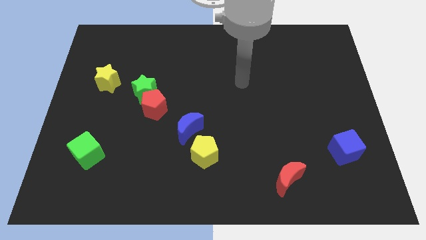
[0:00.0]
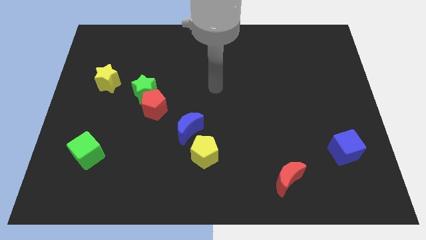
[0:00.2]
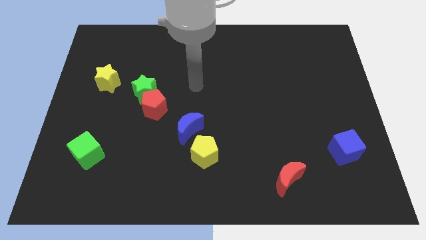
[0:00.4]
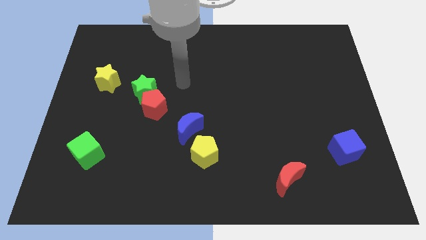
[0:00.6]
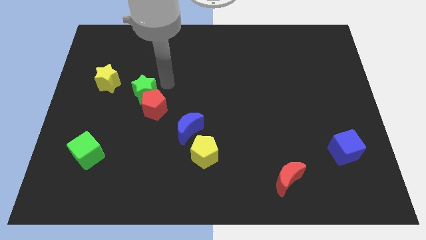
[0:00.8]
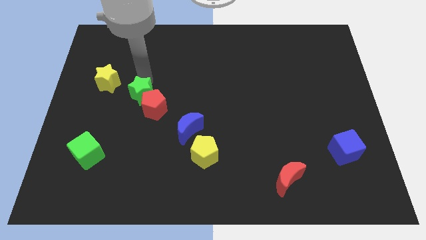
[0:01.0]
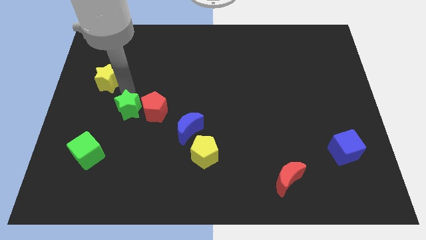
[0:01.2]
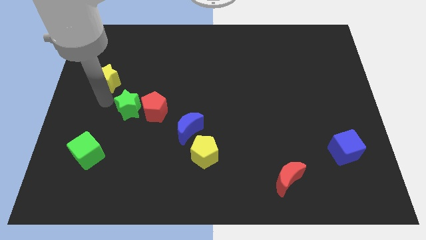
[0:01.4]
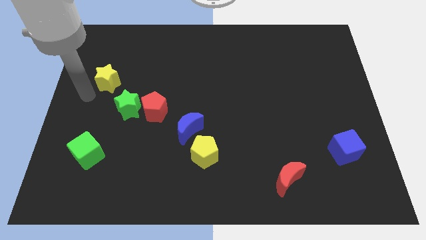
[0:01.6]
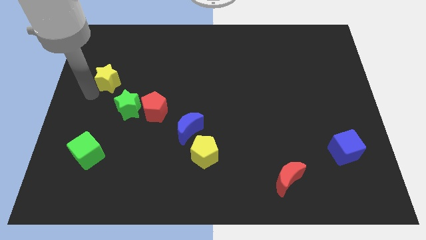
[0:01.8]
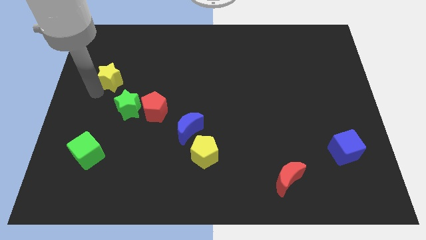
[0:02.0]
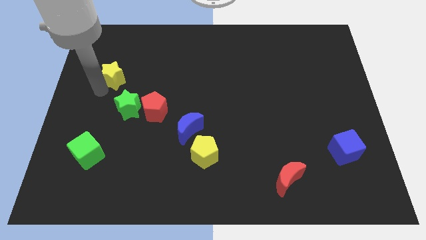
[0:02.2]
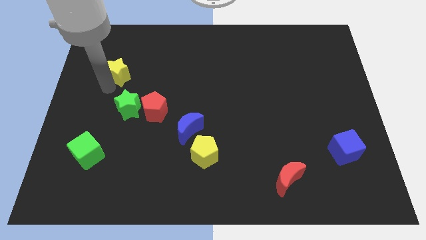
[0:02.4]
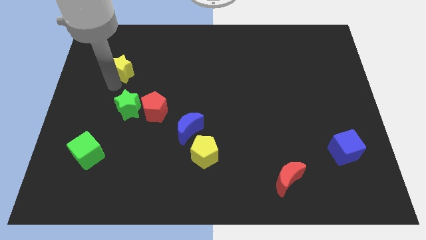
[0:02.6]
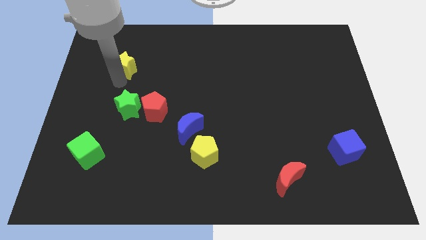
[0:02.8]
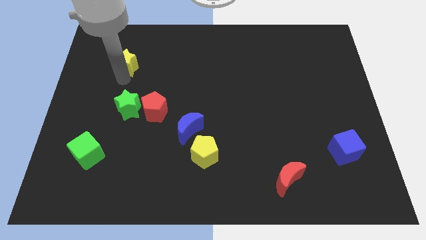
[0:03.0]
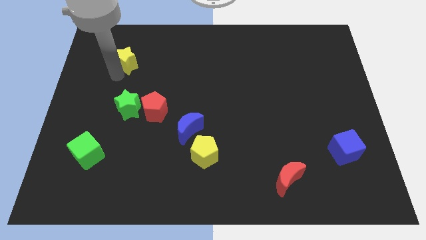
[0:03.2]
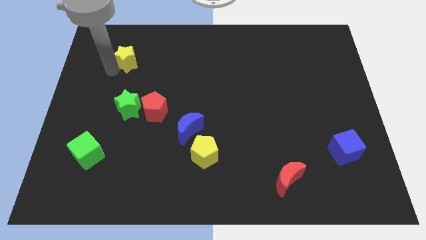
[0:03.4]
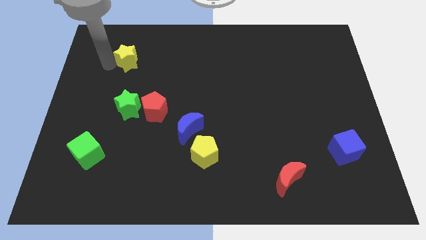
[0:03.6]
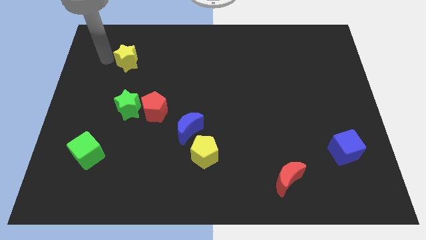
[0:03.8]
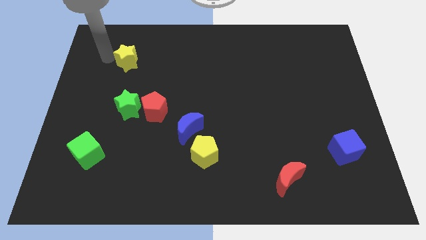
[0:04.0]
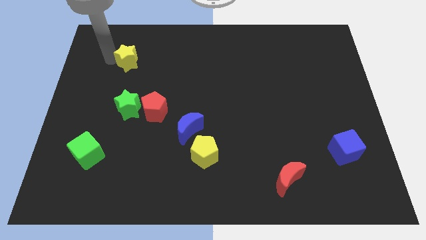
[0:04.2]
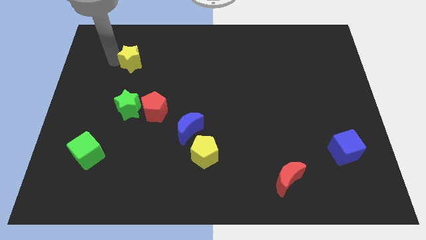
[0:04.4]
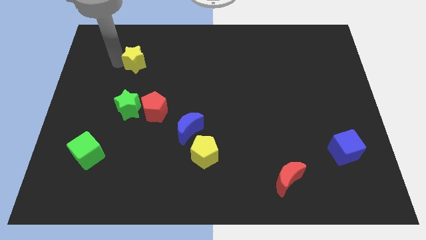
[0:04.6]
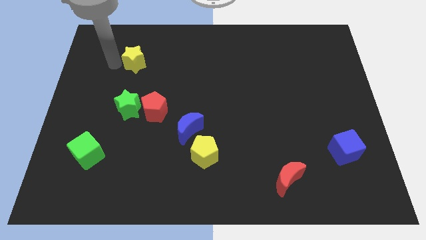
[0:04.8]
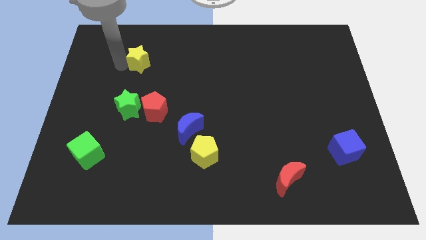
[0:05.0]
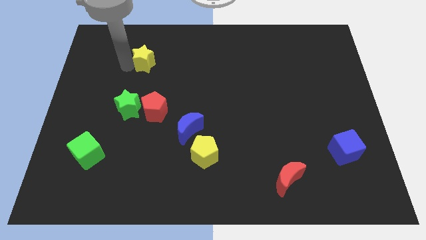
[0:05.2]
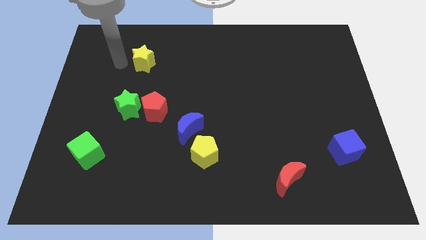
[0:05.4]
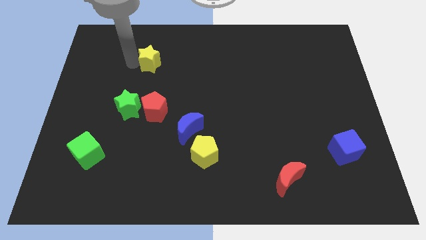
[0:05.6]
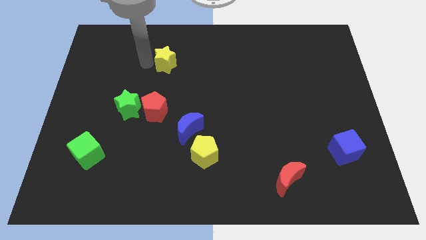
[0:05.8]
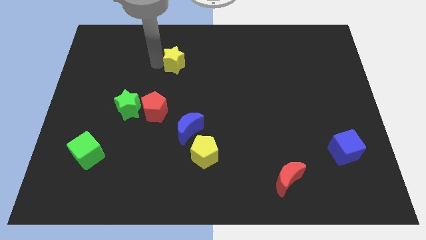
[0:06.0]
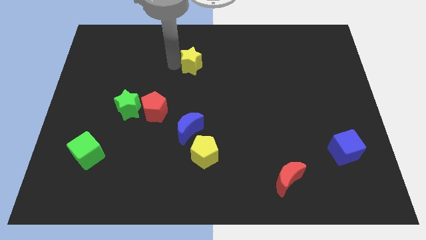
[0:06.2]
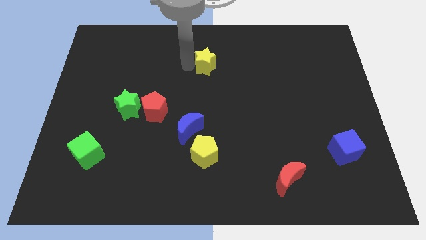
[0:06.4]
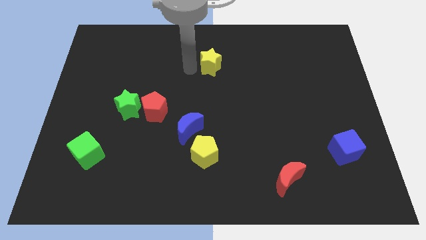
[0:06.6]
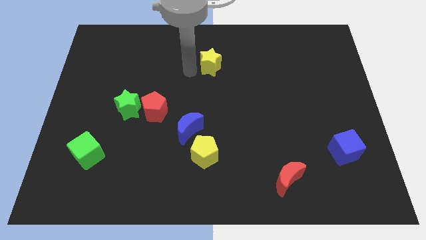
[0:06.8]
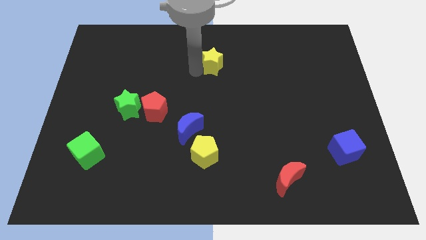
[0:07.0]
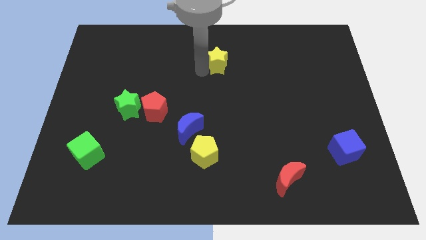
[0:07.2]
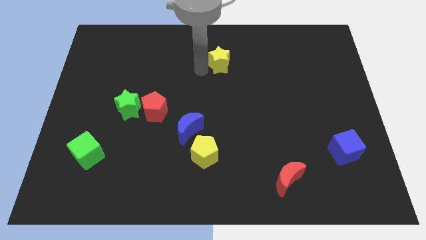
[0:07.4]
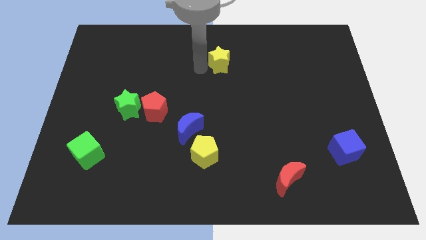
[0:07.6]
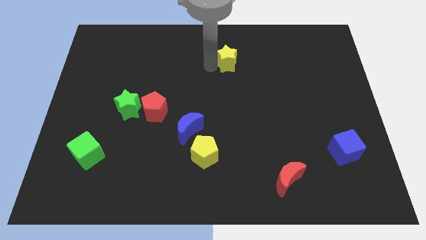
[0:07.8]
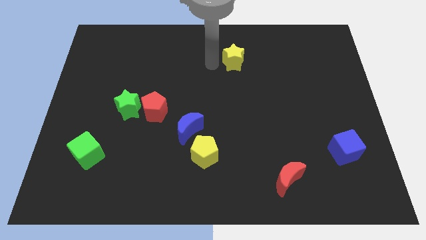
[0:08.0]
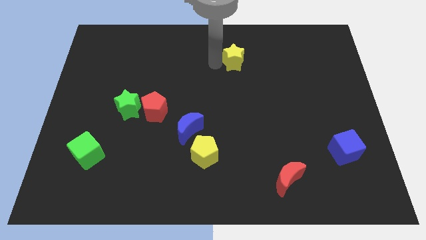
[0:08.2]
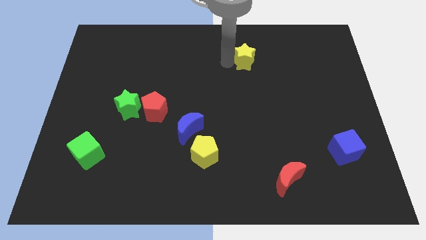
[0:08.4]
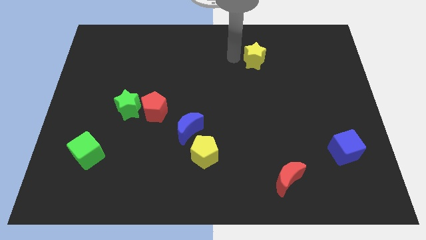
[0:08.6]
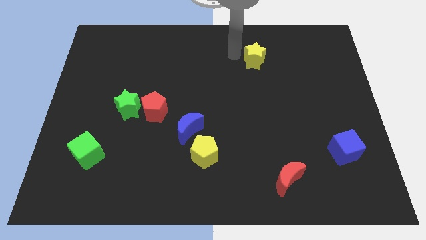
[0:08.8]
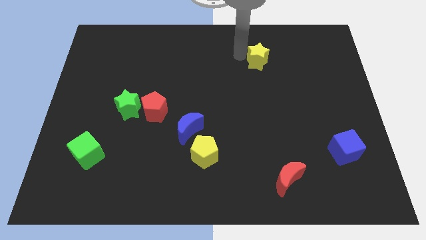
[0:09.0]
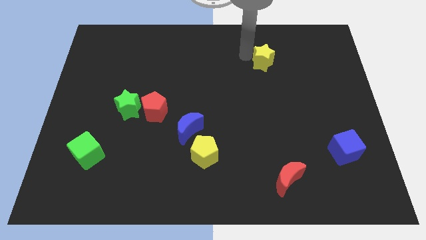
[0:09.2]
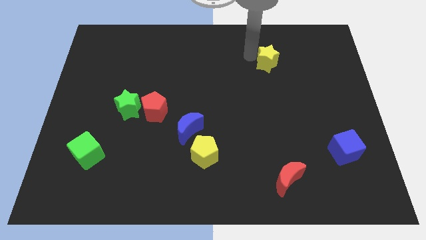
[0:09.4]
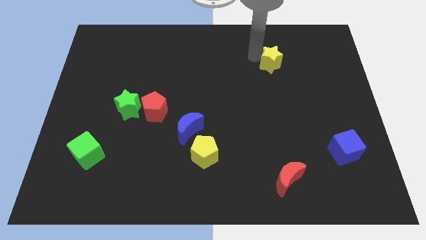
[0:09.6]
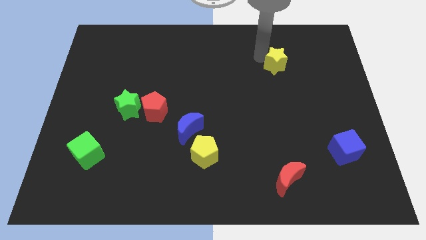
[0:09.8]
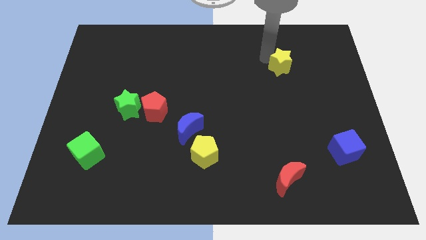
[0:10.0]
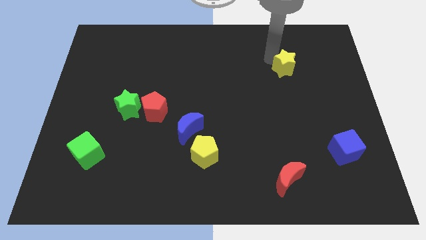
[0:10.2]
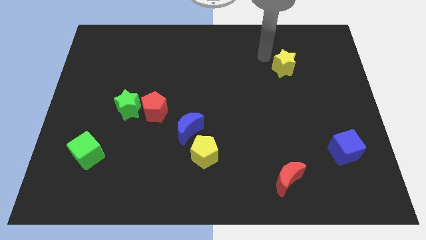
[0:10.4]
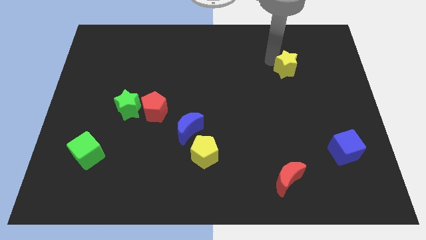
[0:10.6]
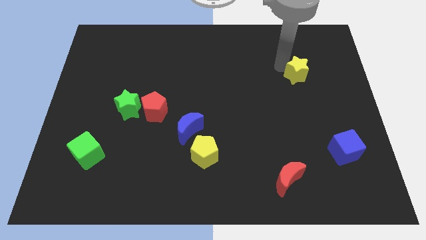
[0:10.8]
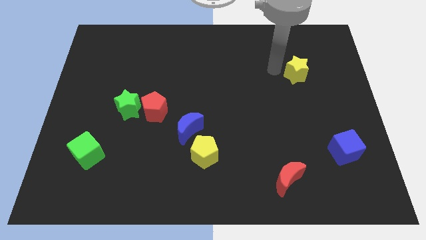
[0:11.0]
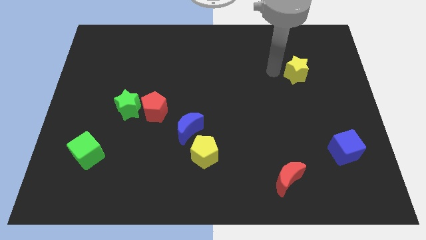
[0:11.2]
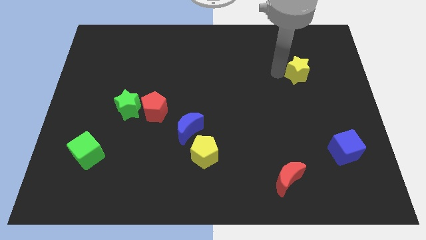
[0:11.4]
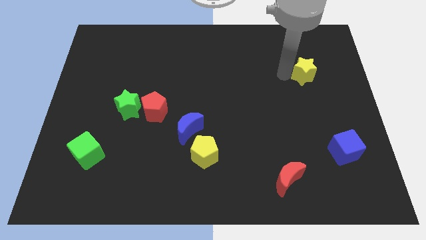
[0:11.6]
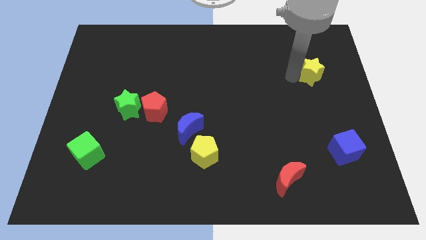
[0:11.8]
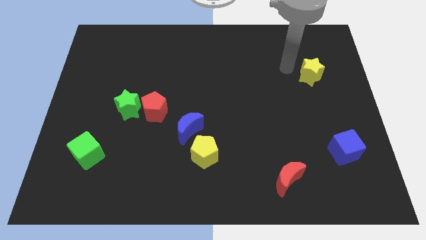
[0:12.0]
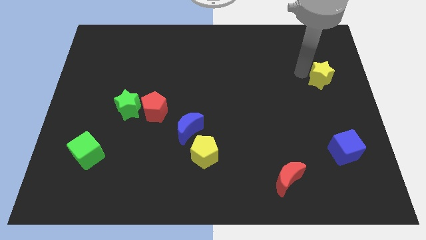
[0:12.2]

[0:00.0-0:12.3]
put the yellow star to the right side of the board

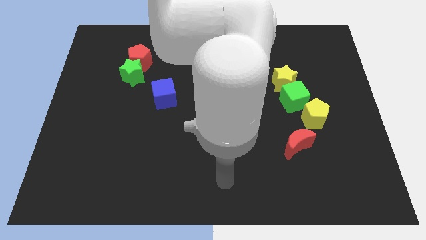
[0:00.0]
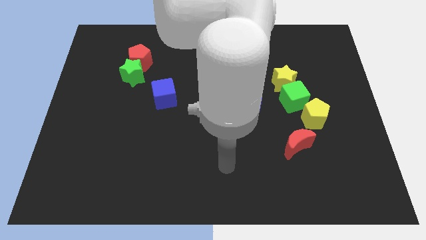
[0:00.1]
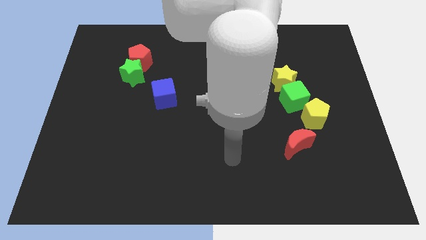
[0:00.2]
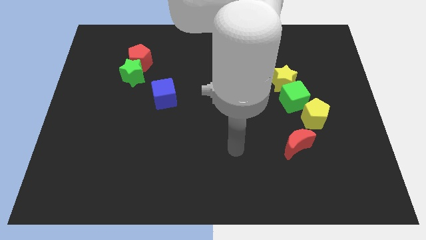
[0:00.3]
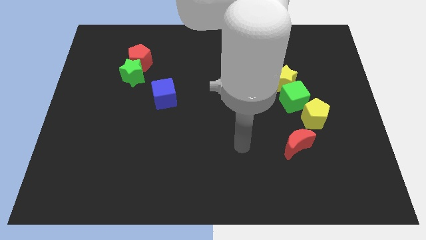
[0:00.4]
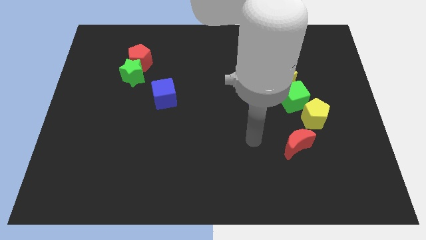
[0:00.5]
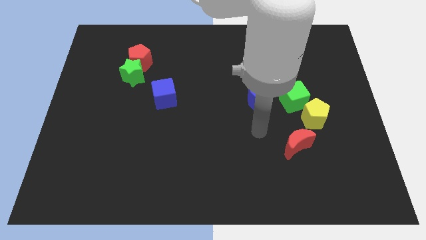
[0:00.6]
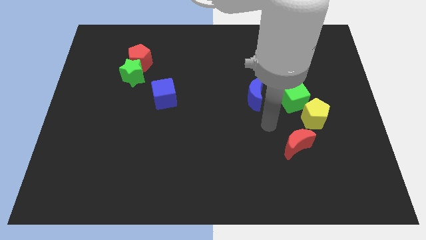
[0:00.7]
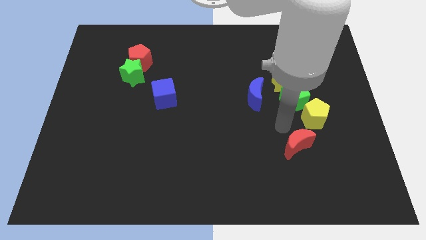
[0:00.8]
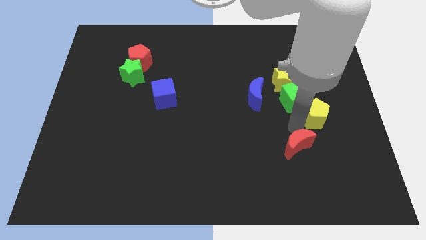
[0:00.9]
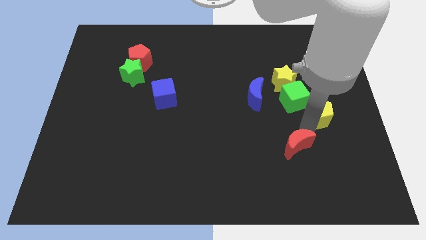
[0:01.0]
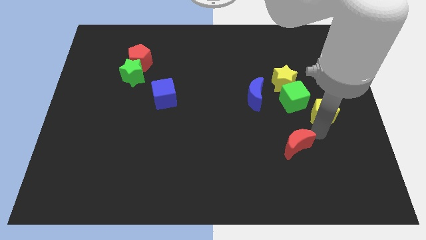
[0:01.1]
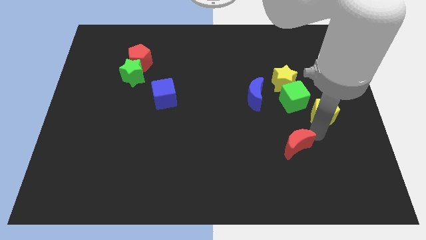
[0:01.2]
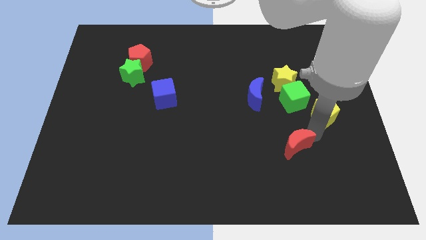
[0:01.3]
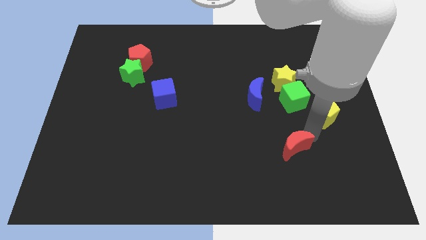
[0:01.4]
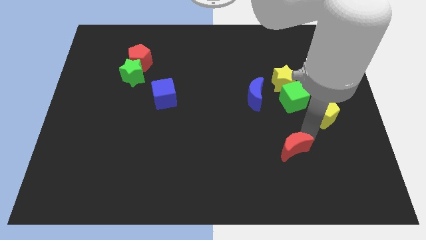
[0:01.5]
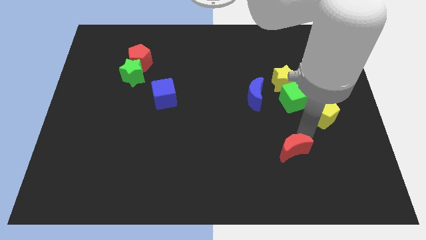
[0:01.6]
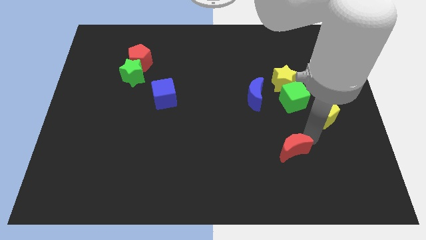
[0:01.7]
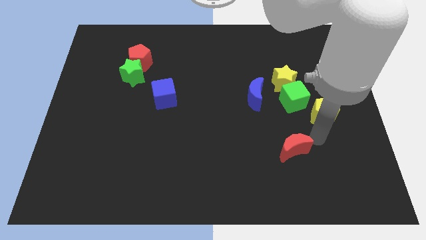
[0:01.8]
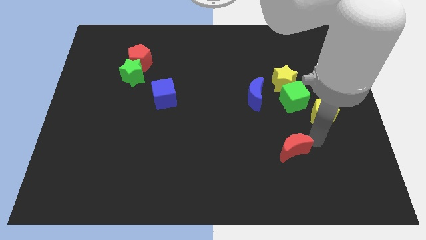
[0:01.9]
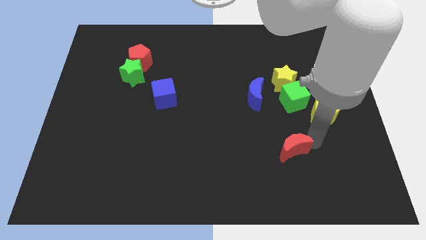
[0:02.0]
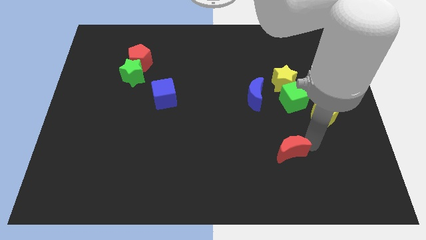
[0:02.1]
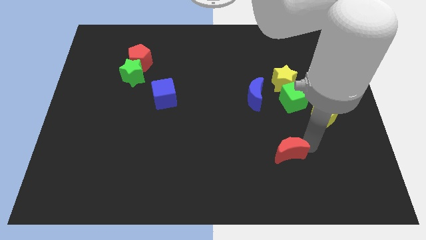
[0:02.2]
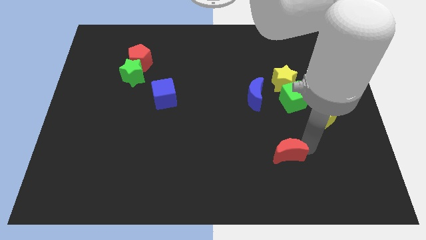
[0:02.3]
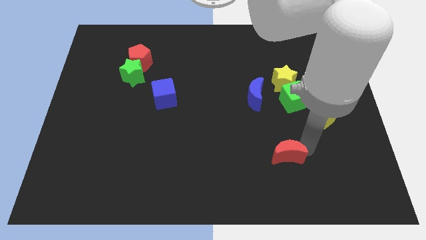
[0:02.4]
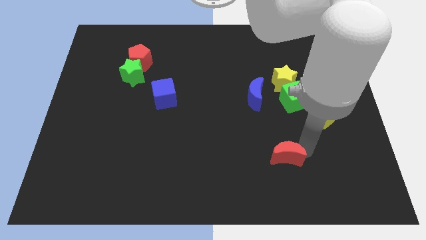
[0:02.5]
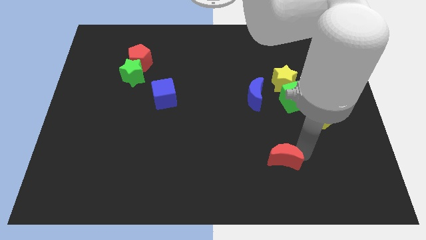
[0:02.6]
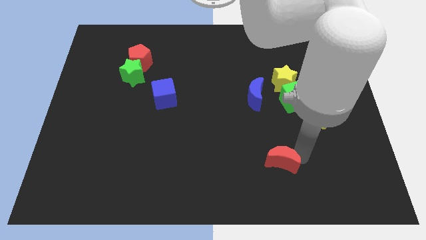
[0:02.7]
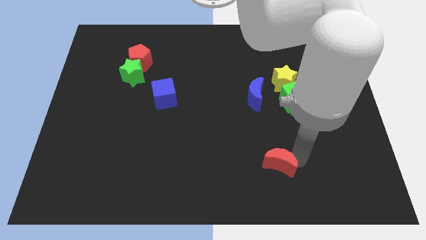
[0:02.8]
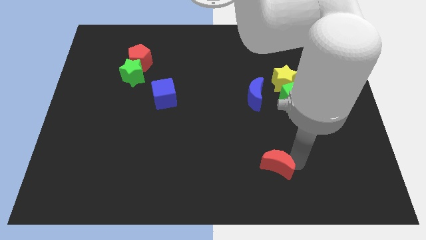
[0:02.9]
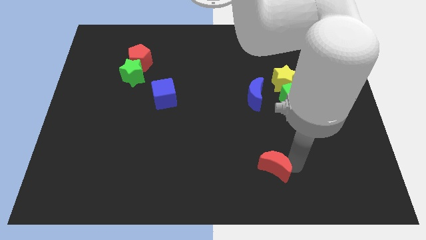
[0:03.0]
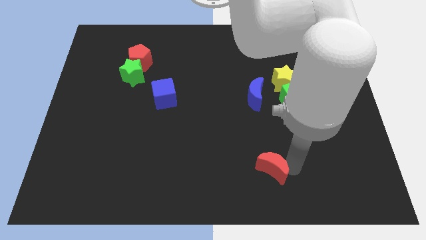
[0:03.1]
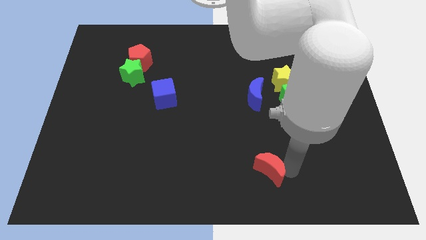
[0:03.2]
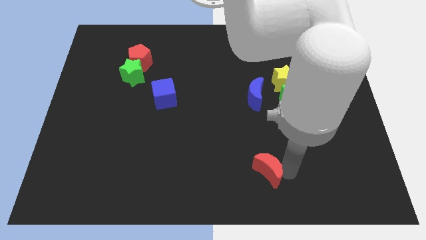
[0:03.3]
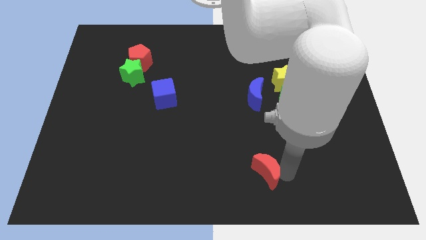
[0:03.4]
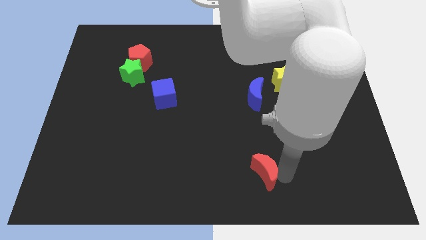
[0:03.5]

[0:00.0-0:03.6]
put the red moon to the bottom
